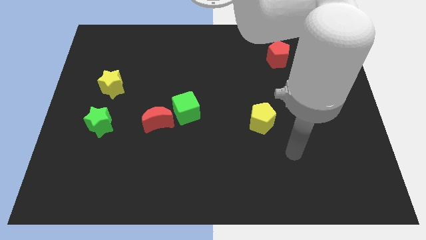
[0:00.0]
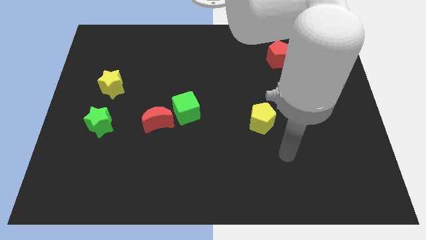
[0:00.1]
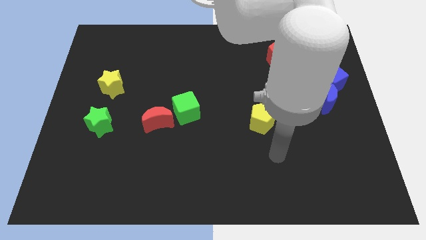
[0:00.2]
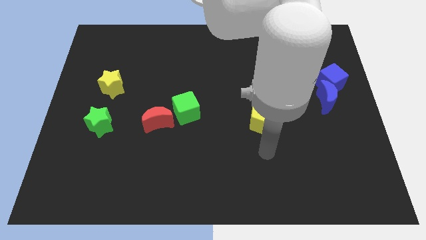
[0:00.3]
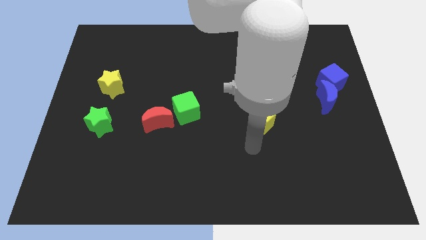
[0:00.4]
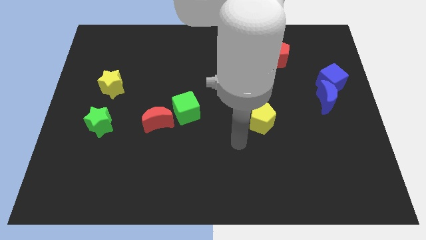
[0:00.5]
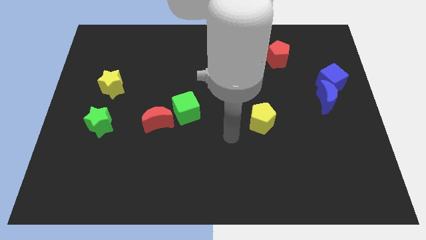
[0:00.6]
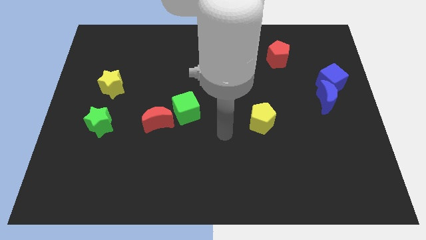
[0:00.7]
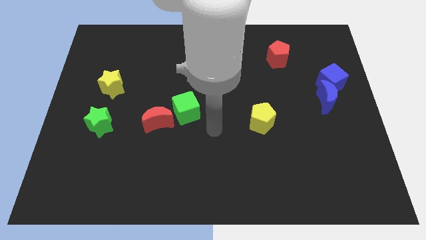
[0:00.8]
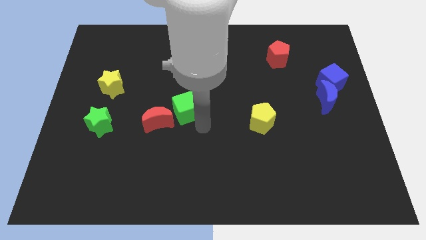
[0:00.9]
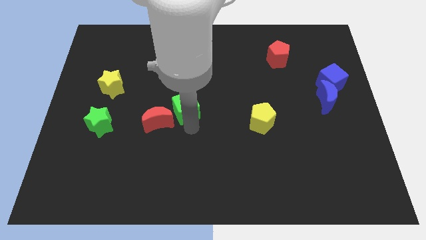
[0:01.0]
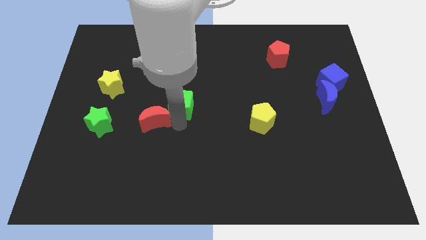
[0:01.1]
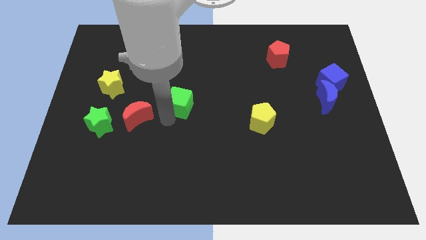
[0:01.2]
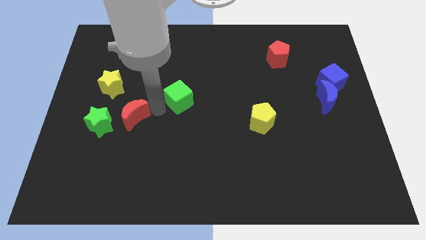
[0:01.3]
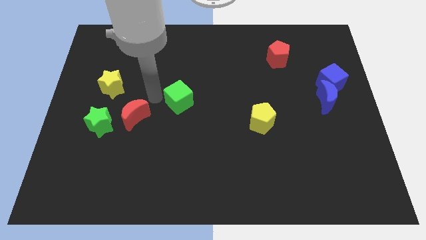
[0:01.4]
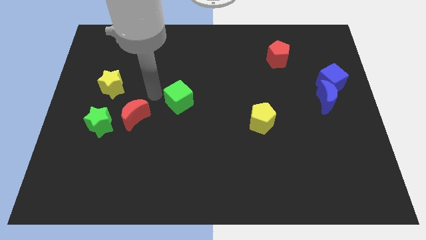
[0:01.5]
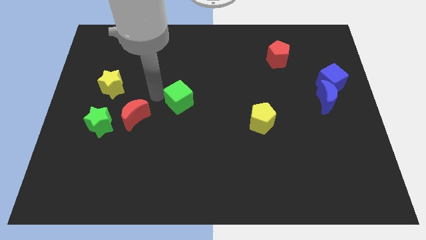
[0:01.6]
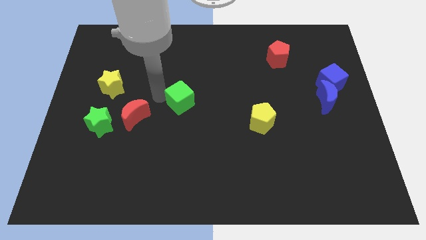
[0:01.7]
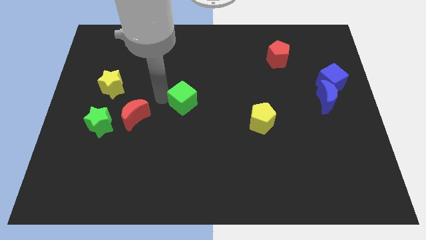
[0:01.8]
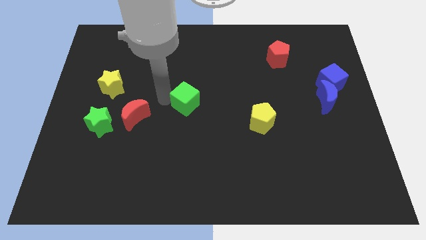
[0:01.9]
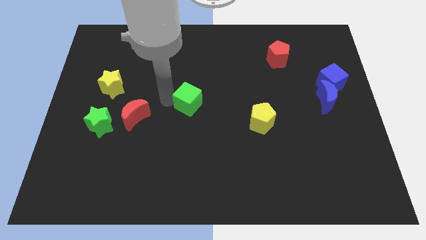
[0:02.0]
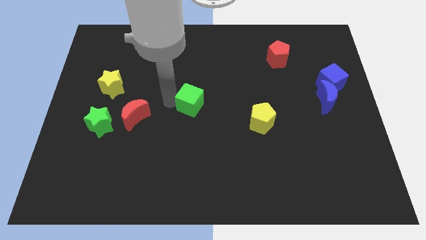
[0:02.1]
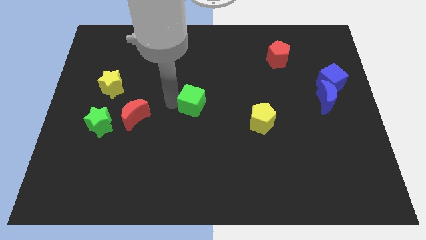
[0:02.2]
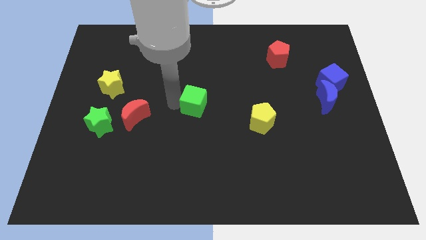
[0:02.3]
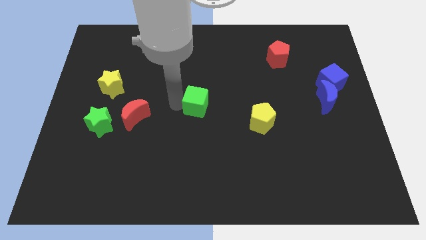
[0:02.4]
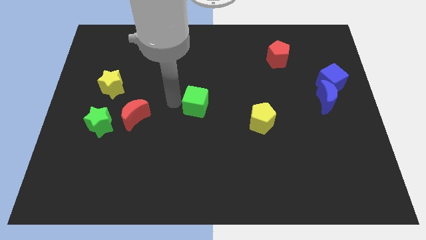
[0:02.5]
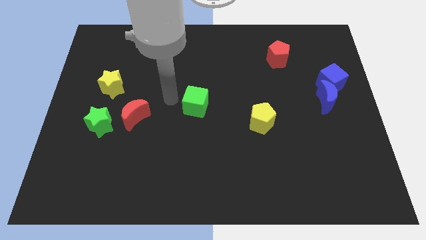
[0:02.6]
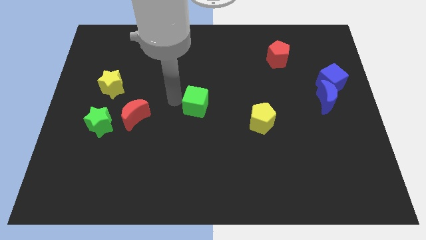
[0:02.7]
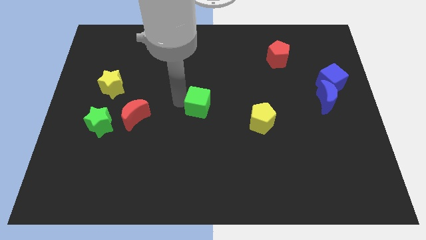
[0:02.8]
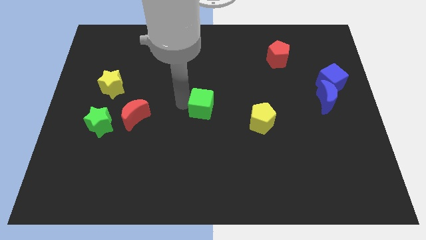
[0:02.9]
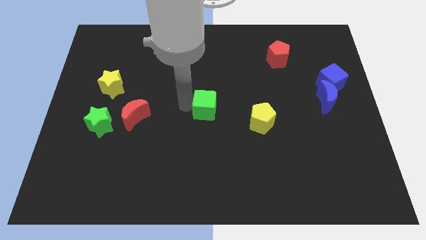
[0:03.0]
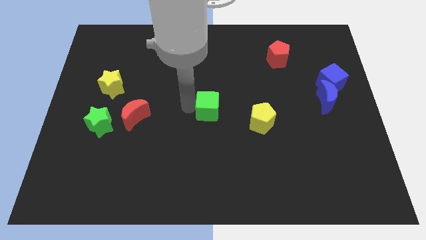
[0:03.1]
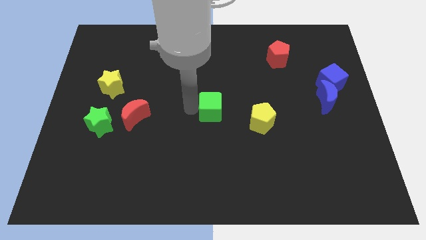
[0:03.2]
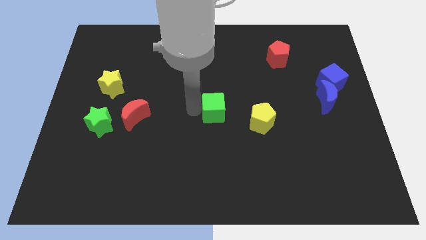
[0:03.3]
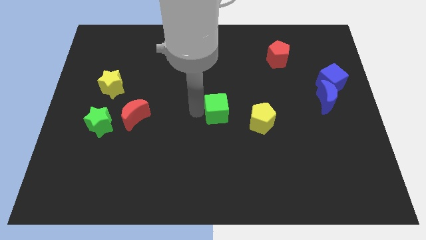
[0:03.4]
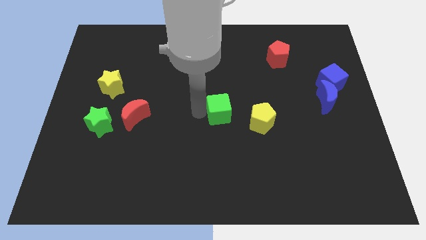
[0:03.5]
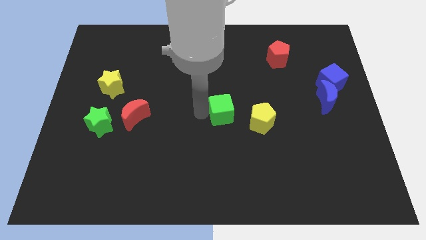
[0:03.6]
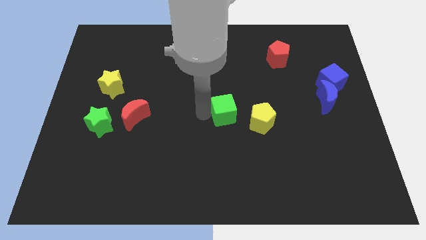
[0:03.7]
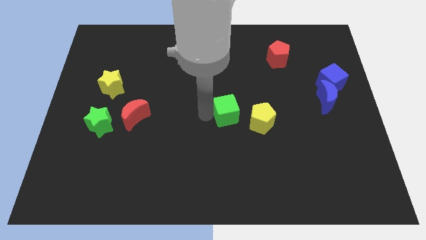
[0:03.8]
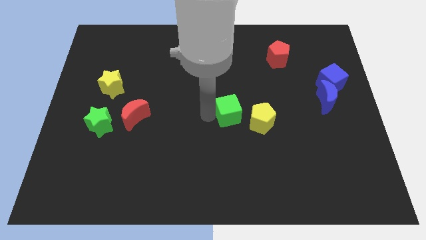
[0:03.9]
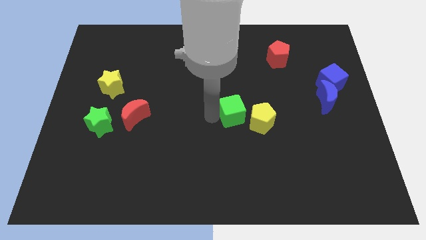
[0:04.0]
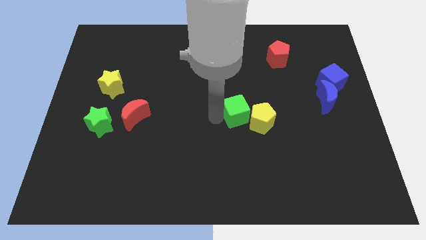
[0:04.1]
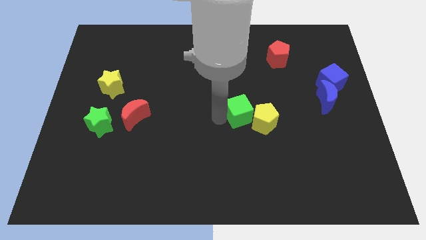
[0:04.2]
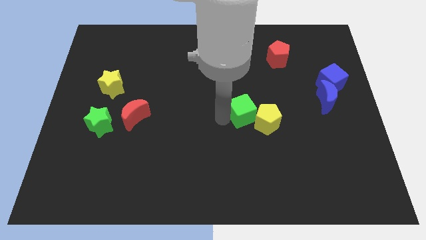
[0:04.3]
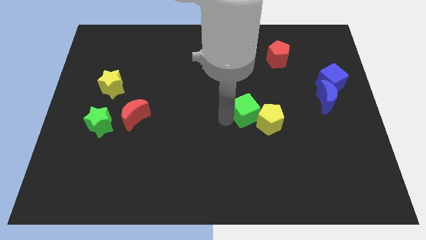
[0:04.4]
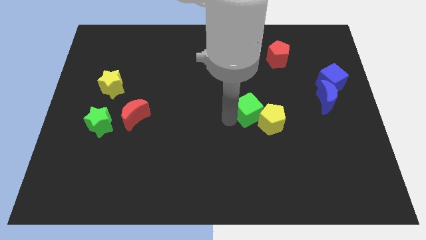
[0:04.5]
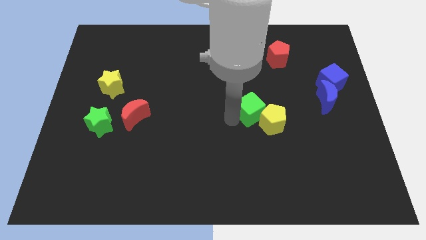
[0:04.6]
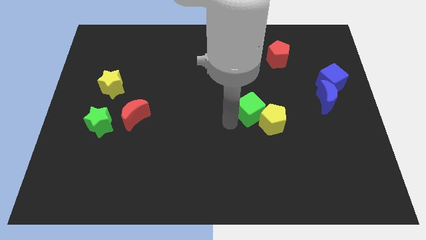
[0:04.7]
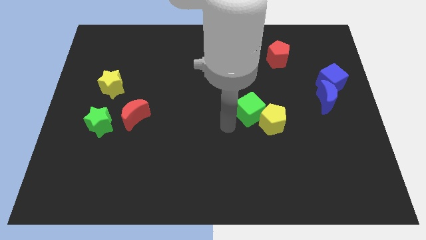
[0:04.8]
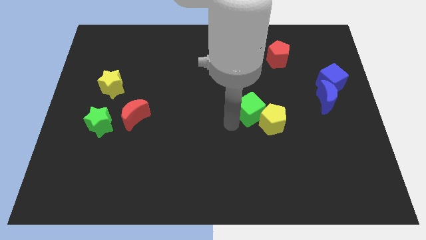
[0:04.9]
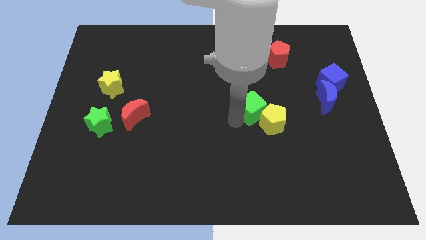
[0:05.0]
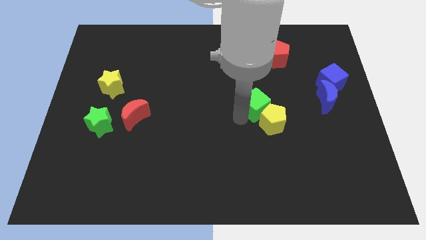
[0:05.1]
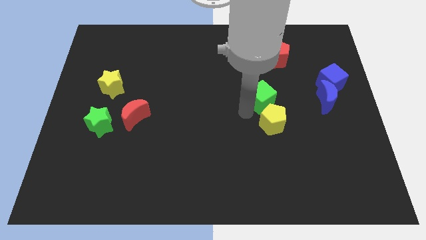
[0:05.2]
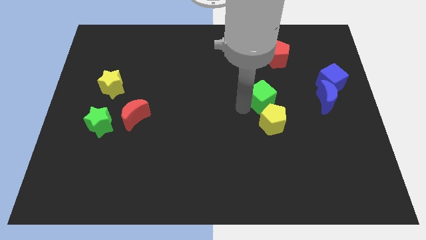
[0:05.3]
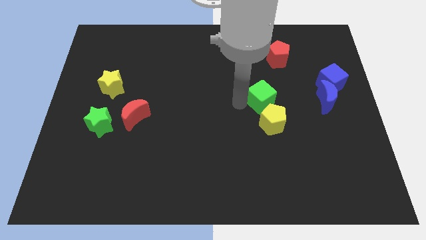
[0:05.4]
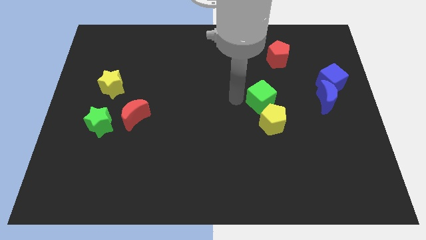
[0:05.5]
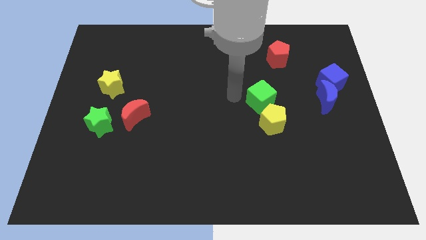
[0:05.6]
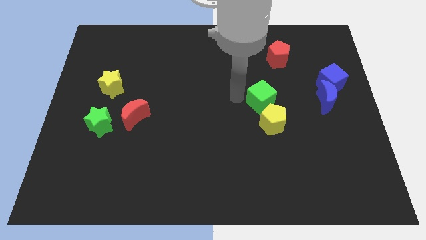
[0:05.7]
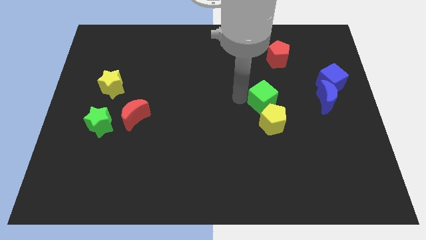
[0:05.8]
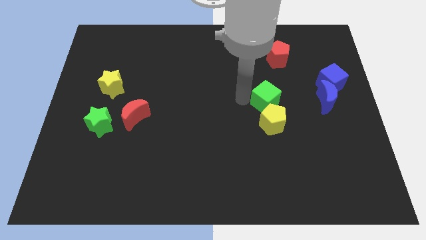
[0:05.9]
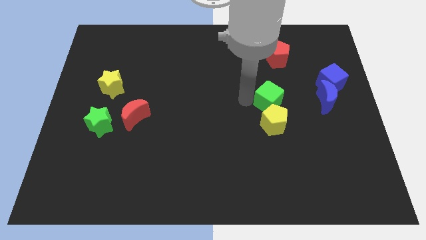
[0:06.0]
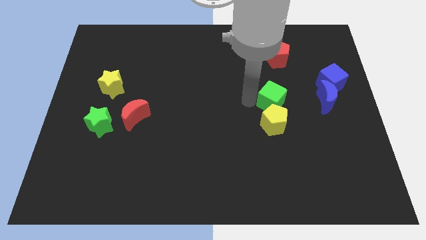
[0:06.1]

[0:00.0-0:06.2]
move the green cube to the top right side of the yellow pentagon

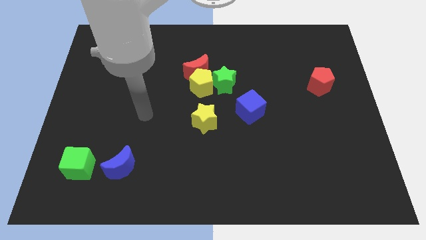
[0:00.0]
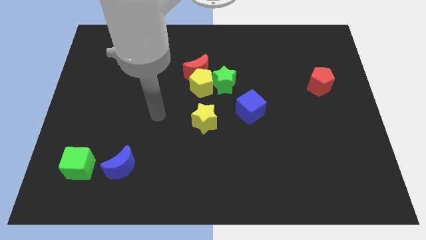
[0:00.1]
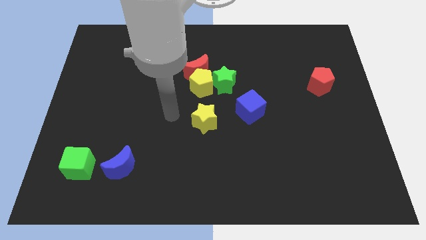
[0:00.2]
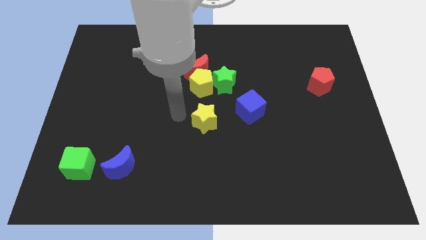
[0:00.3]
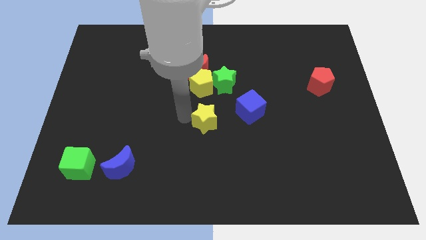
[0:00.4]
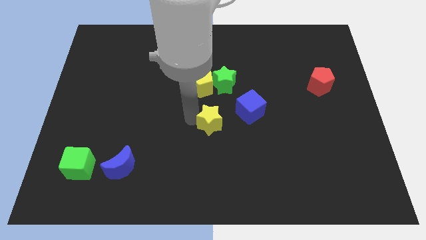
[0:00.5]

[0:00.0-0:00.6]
slide the yellow star diagonally down and to the left of the blue cube
